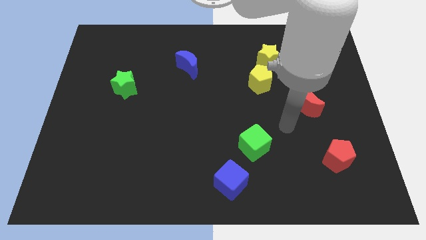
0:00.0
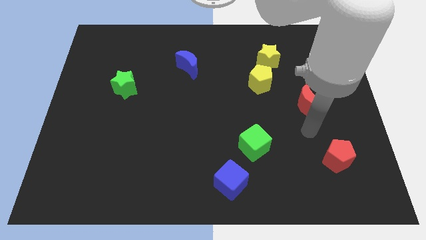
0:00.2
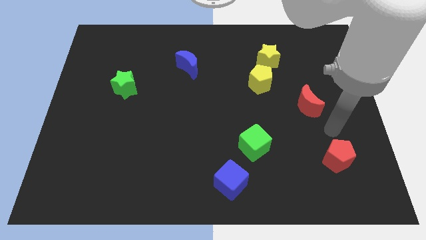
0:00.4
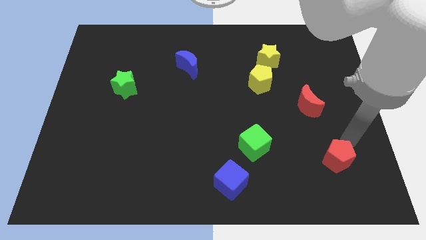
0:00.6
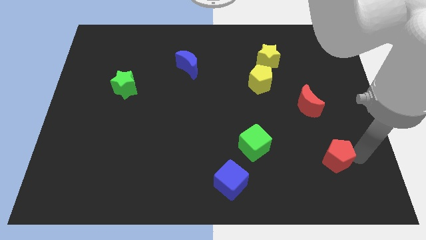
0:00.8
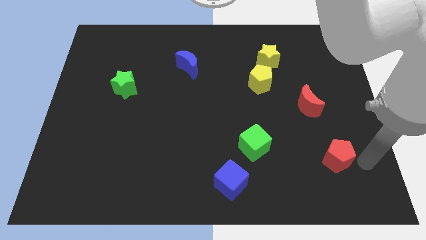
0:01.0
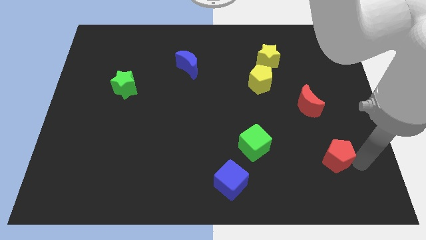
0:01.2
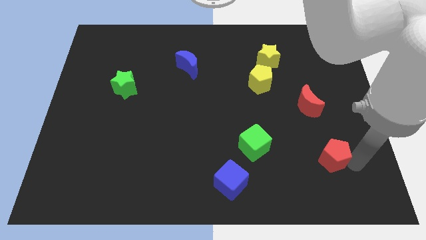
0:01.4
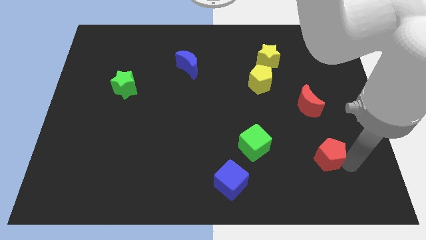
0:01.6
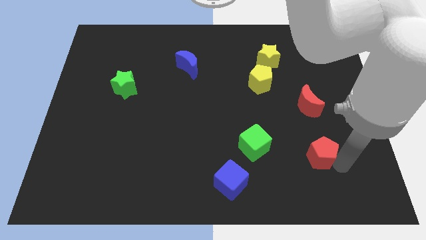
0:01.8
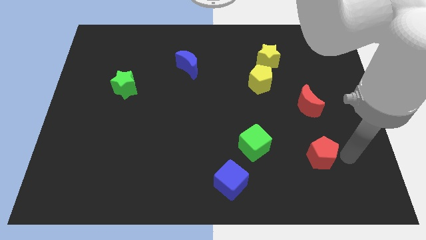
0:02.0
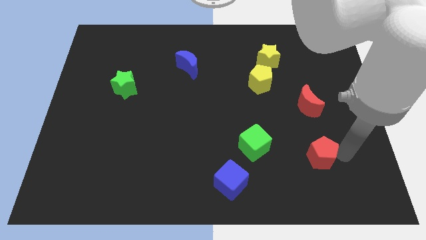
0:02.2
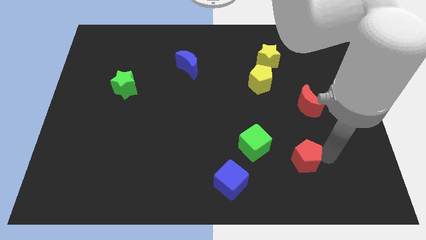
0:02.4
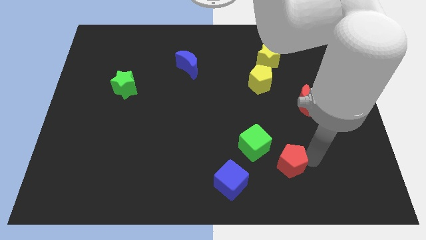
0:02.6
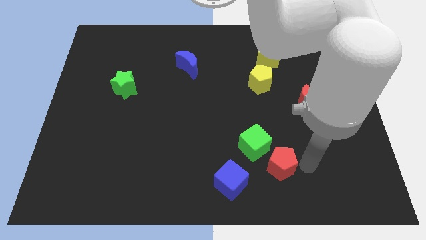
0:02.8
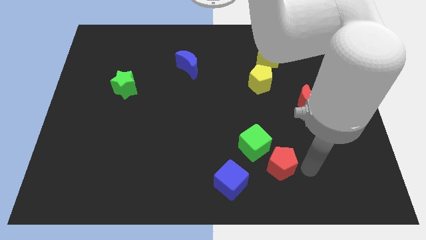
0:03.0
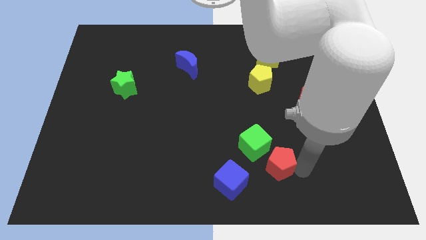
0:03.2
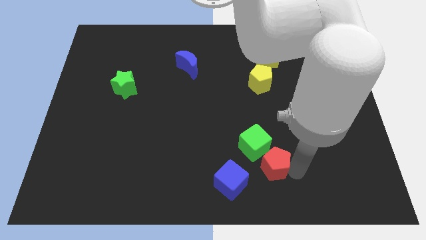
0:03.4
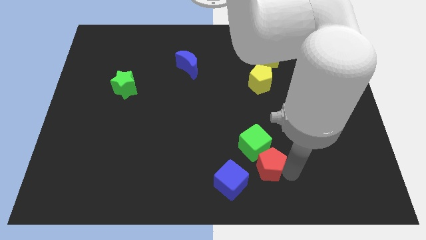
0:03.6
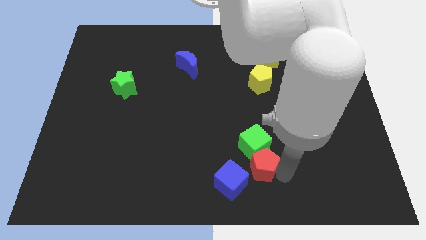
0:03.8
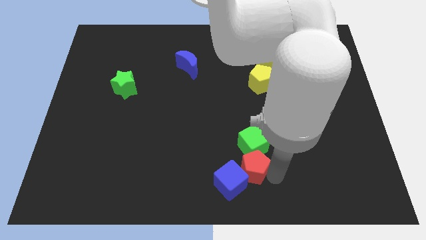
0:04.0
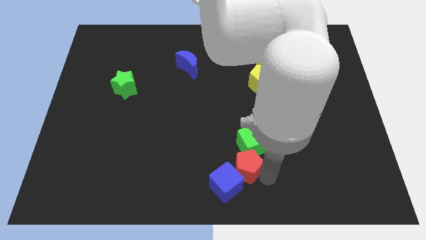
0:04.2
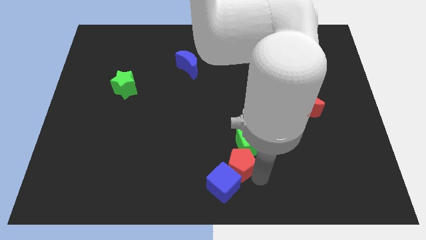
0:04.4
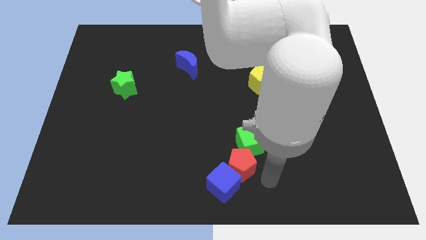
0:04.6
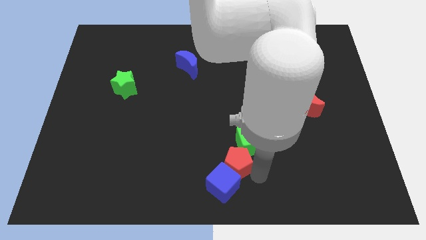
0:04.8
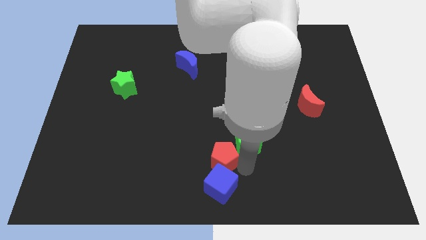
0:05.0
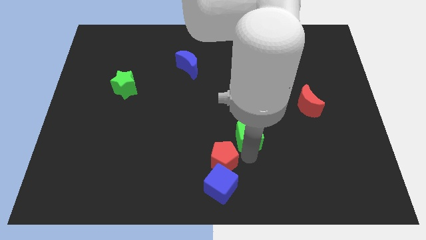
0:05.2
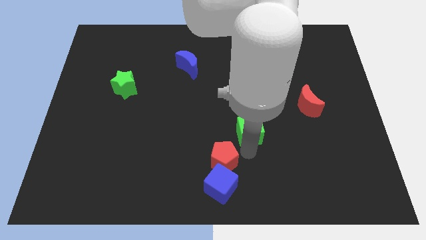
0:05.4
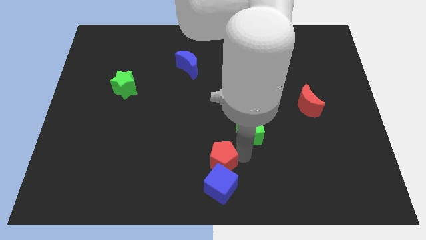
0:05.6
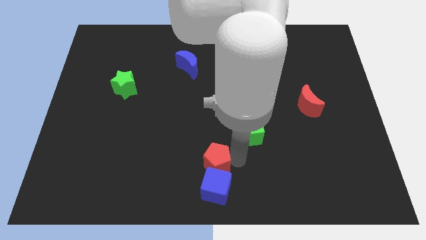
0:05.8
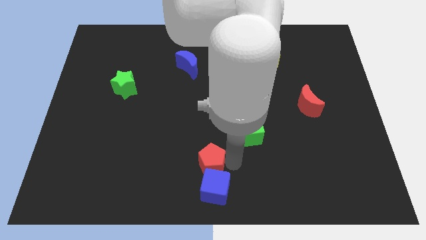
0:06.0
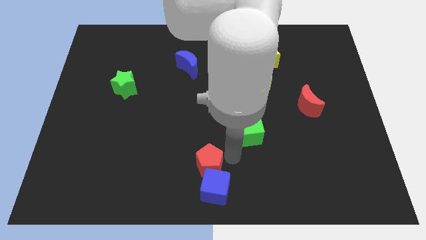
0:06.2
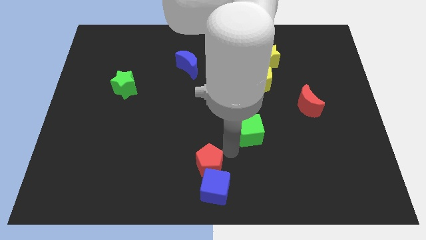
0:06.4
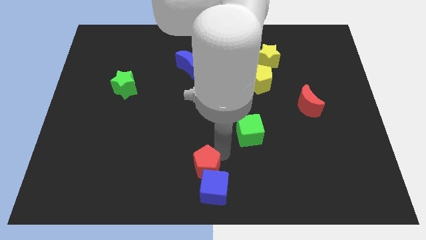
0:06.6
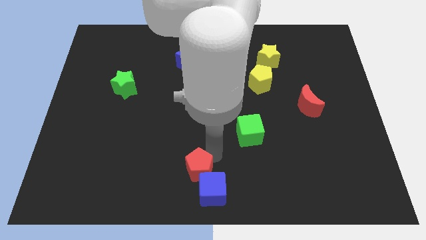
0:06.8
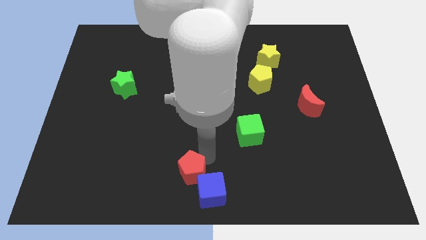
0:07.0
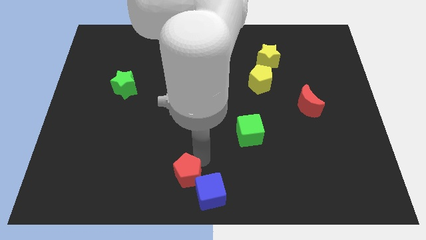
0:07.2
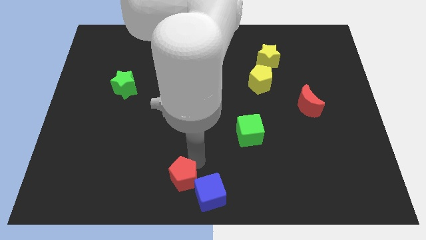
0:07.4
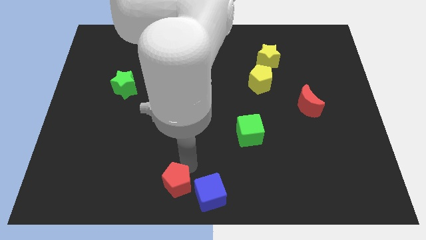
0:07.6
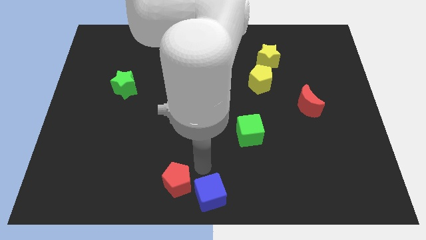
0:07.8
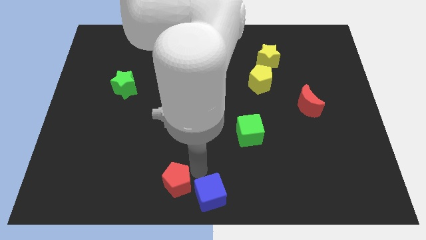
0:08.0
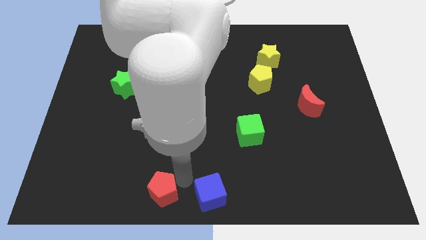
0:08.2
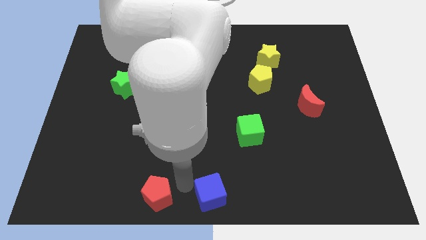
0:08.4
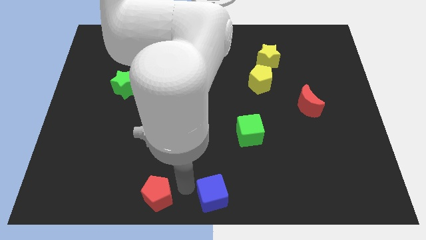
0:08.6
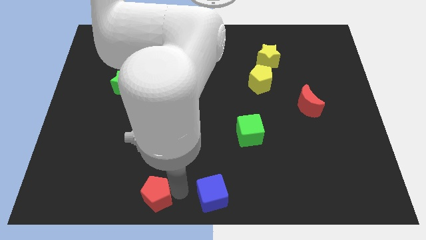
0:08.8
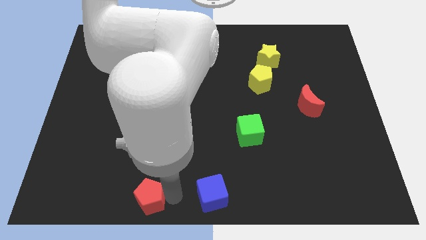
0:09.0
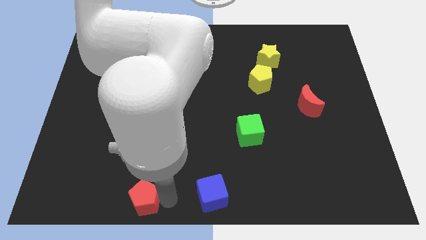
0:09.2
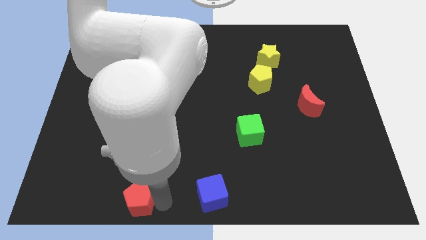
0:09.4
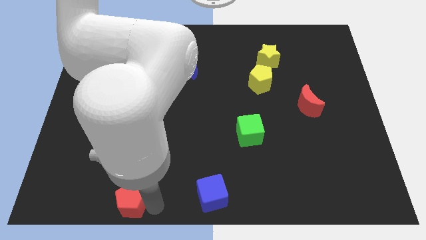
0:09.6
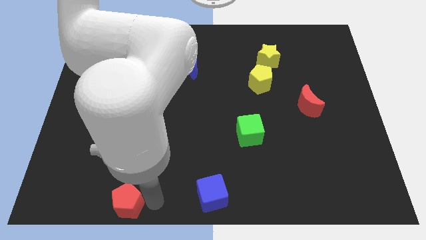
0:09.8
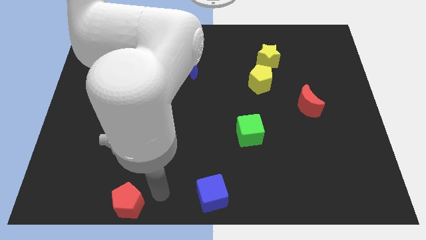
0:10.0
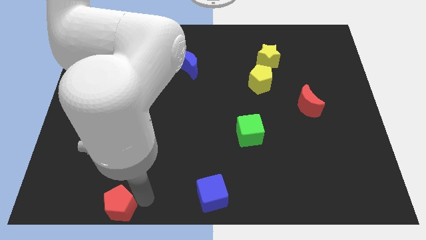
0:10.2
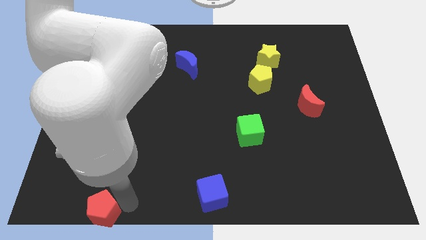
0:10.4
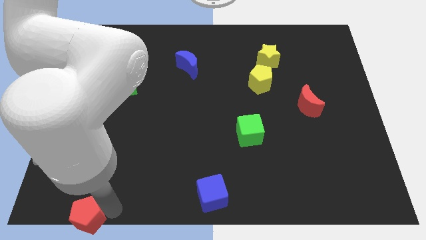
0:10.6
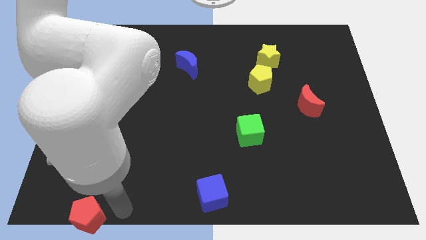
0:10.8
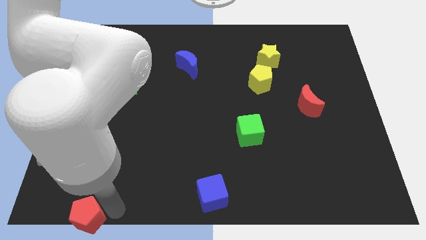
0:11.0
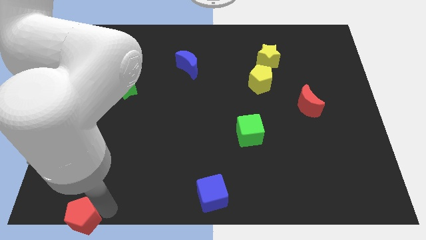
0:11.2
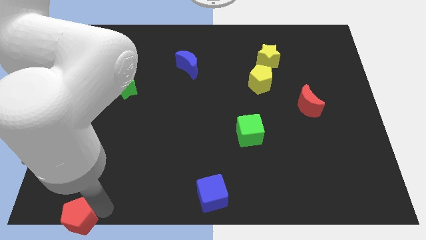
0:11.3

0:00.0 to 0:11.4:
move the red pentagon to the lower left corner

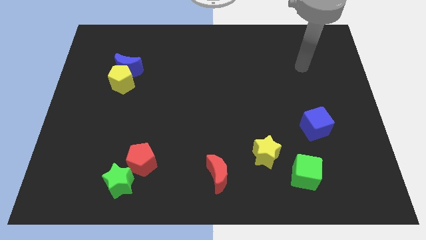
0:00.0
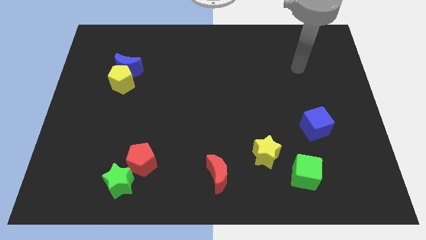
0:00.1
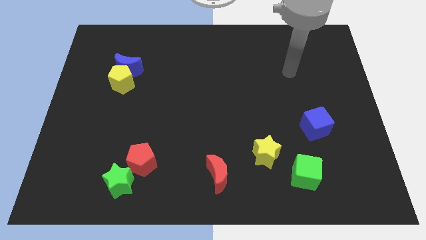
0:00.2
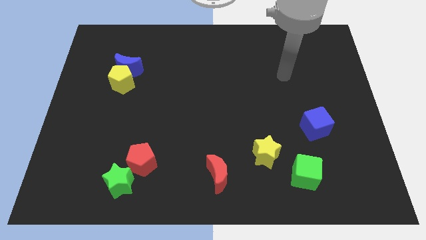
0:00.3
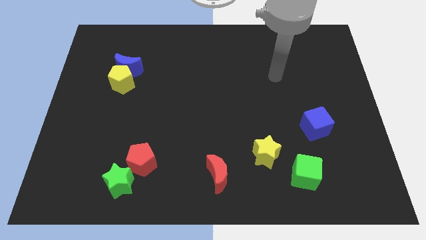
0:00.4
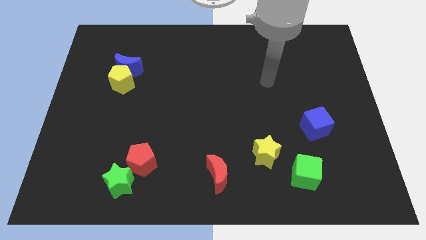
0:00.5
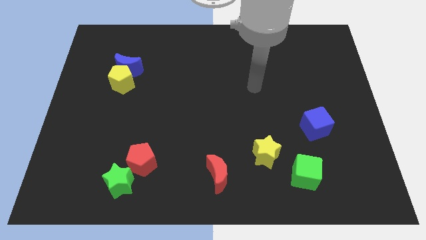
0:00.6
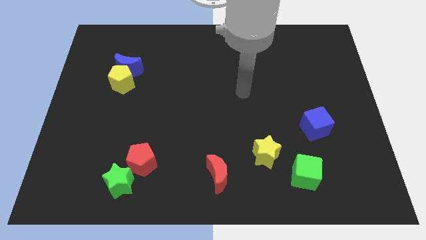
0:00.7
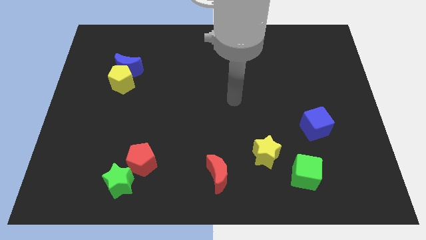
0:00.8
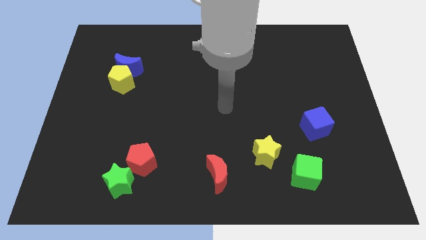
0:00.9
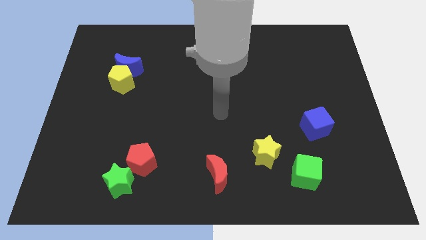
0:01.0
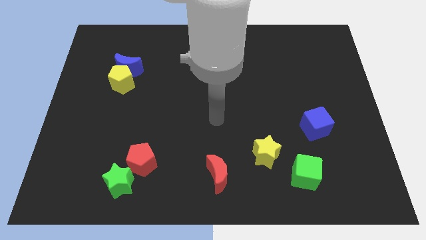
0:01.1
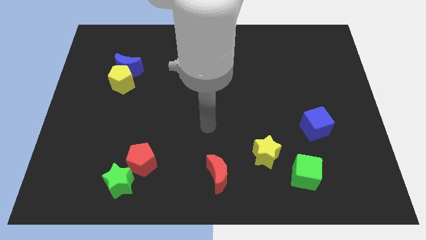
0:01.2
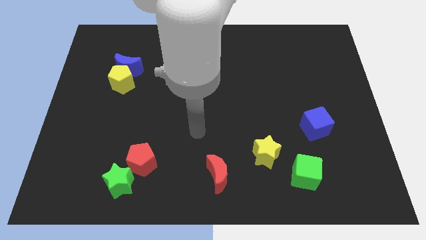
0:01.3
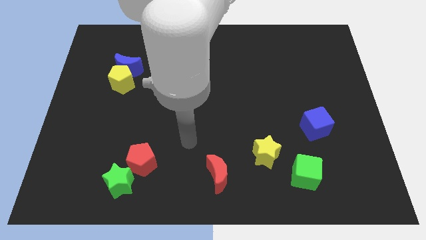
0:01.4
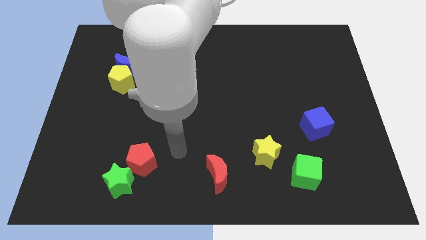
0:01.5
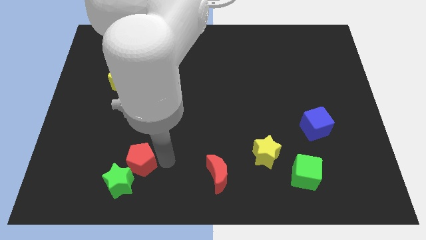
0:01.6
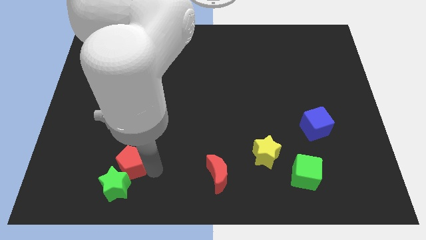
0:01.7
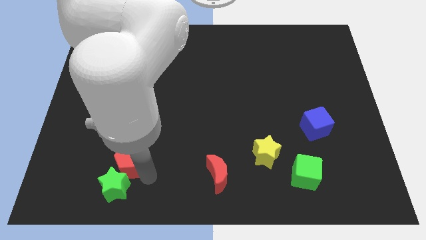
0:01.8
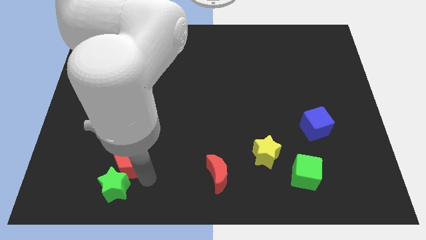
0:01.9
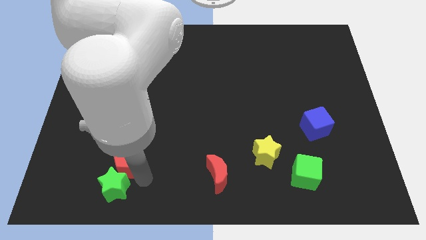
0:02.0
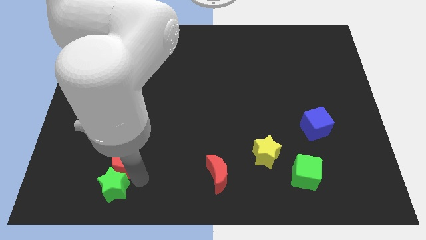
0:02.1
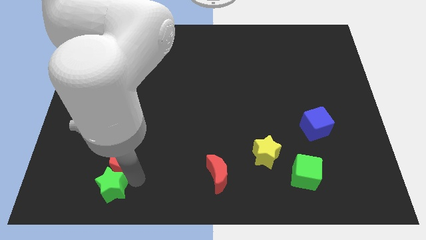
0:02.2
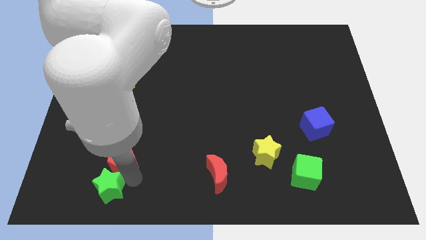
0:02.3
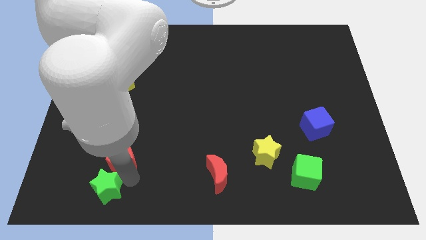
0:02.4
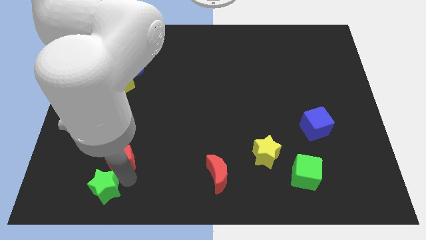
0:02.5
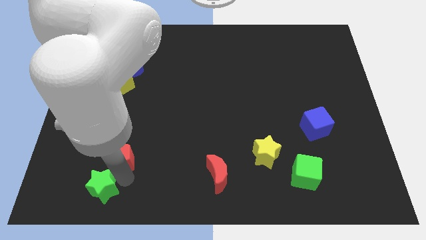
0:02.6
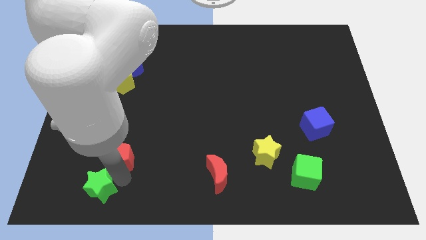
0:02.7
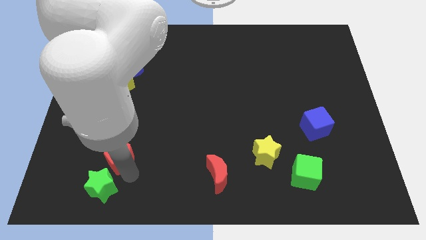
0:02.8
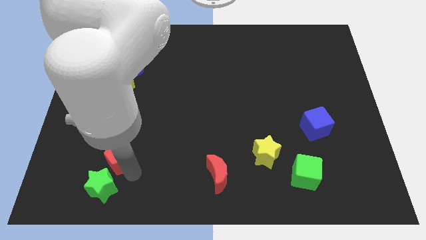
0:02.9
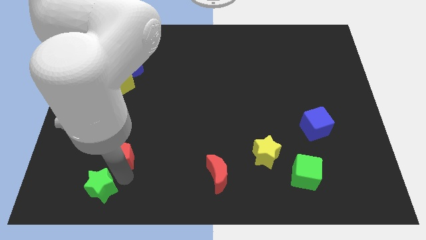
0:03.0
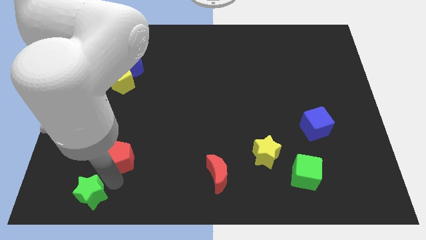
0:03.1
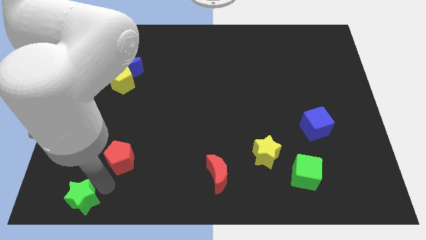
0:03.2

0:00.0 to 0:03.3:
move the green star to the bottom left corner
